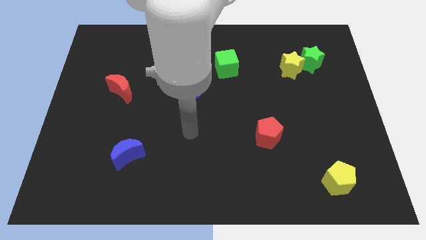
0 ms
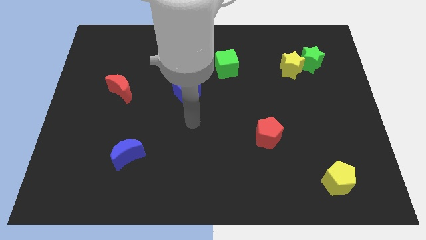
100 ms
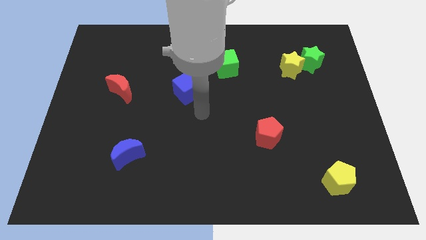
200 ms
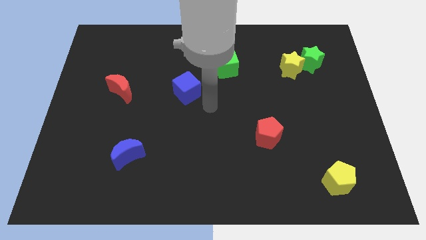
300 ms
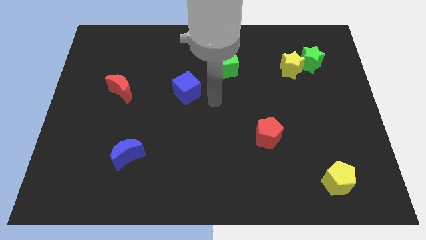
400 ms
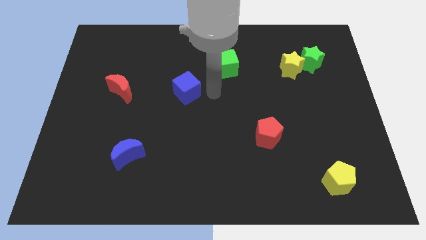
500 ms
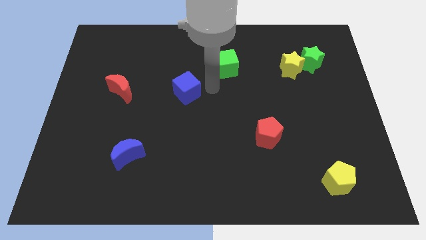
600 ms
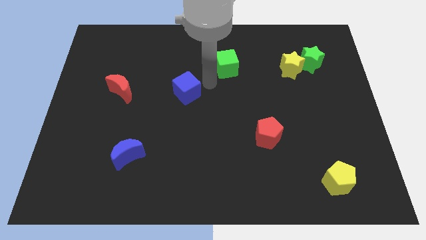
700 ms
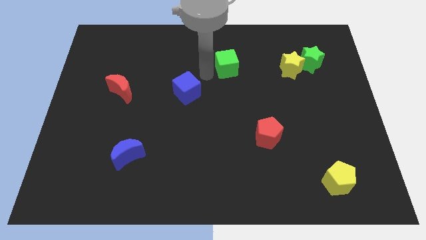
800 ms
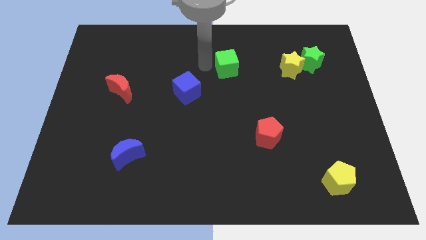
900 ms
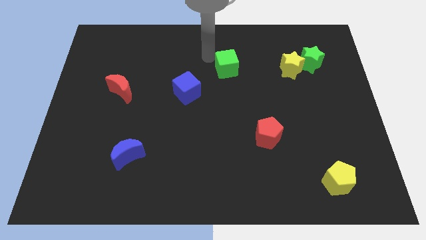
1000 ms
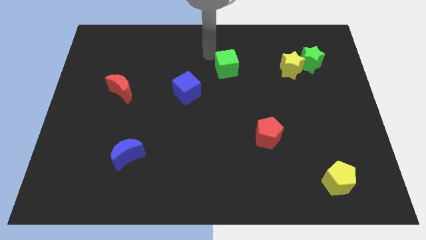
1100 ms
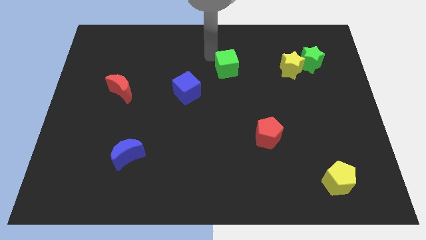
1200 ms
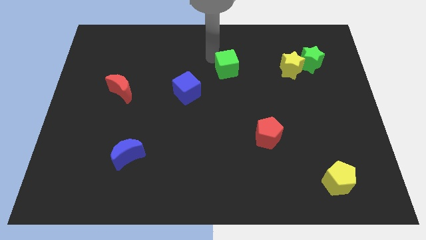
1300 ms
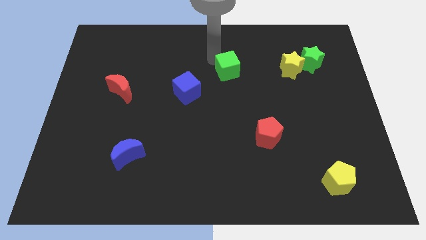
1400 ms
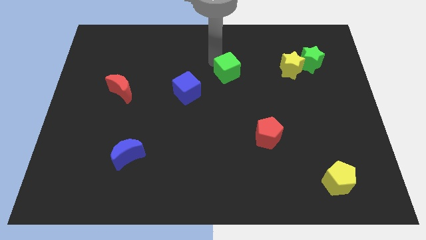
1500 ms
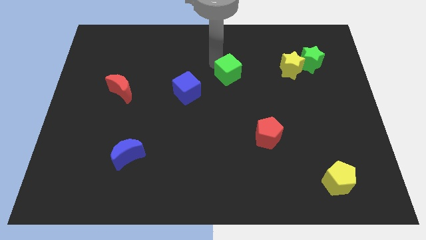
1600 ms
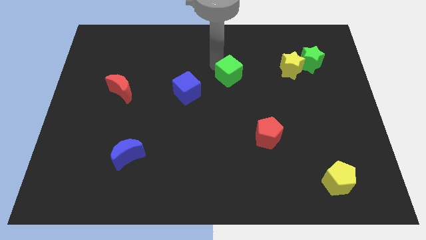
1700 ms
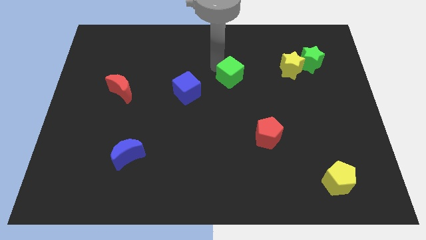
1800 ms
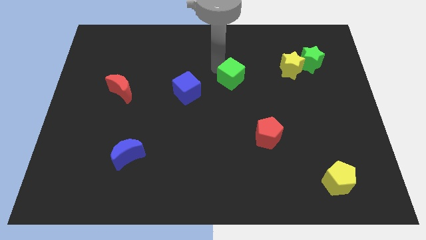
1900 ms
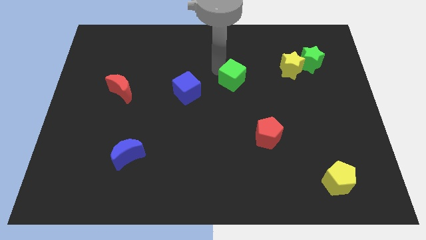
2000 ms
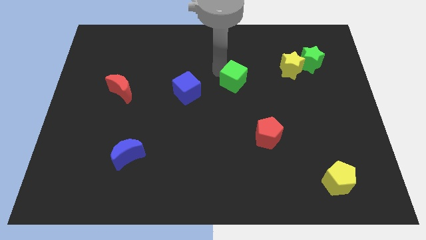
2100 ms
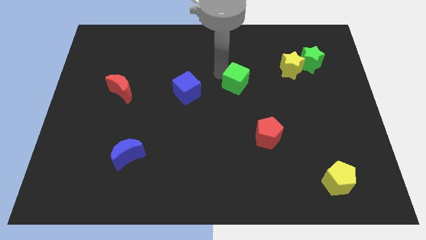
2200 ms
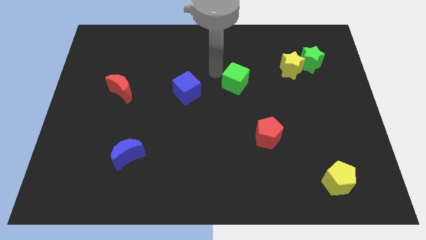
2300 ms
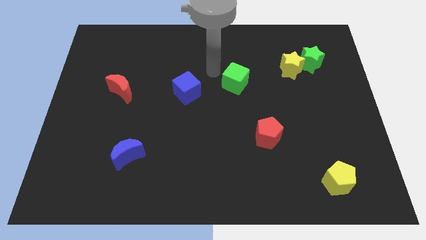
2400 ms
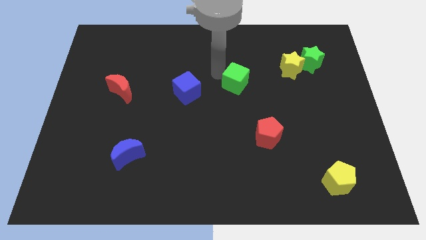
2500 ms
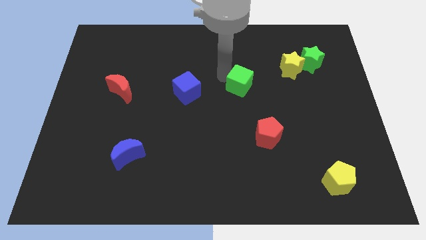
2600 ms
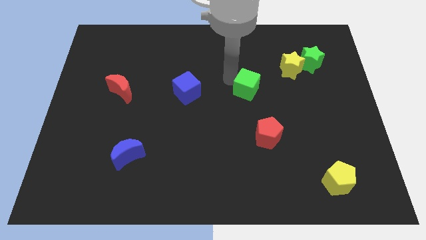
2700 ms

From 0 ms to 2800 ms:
push the green cube downwards and to the right diagonally a little

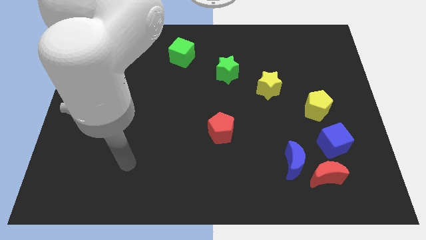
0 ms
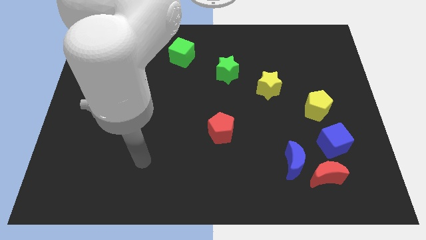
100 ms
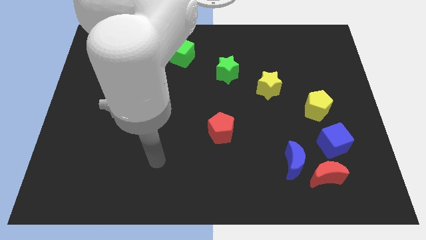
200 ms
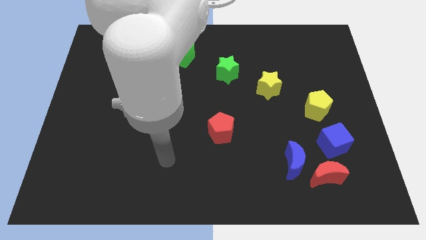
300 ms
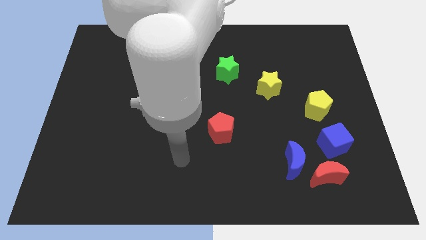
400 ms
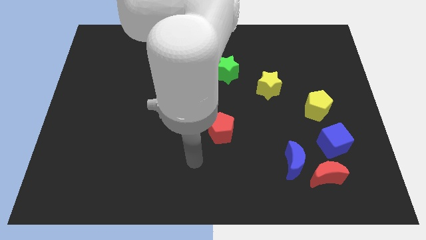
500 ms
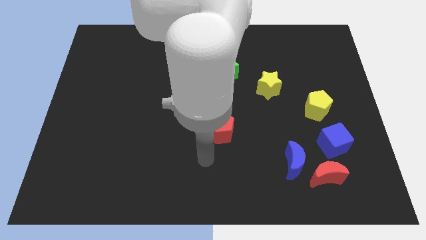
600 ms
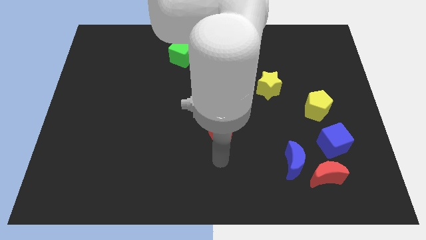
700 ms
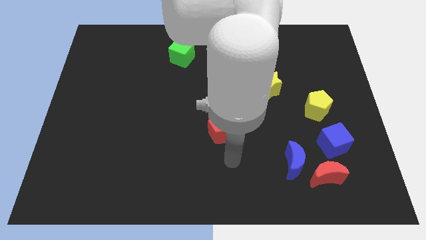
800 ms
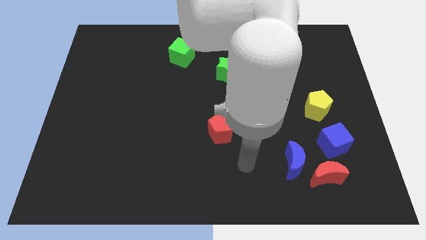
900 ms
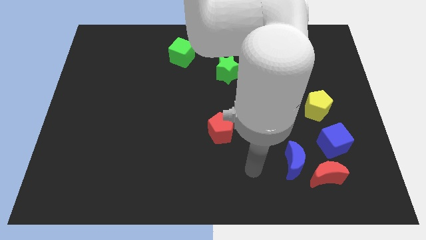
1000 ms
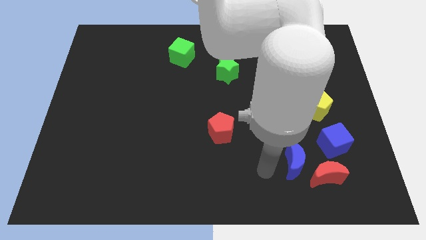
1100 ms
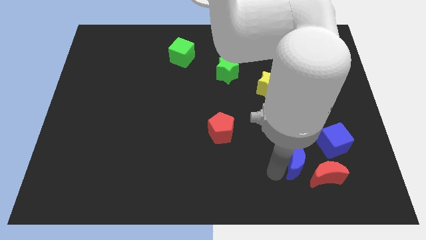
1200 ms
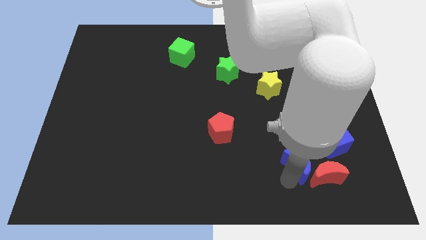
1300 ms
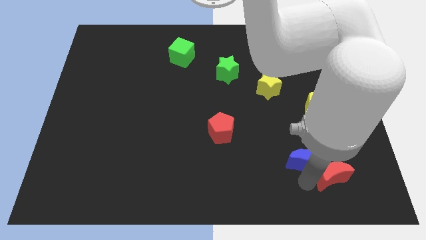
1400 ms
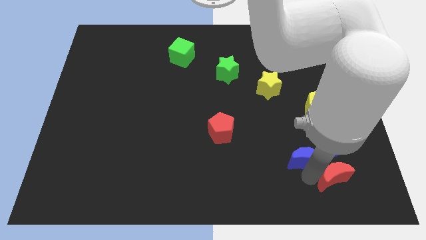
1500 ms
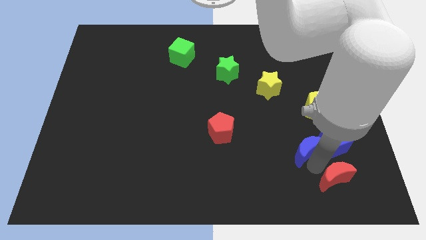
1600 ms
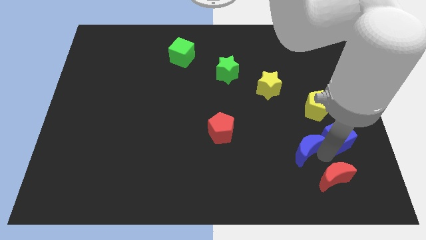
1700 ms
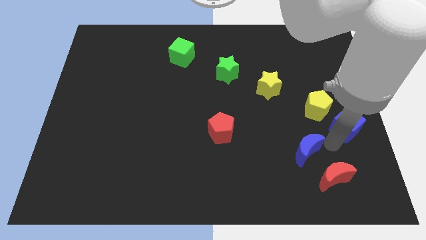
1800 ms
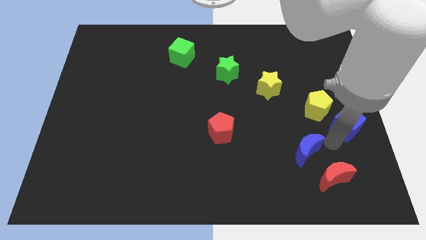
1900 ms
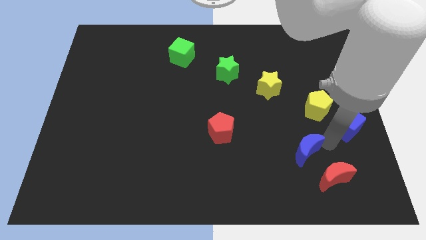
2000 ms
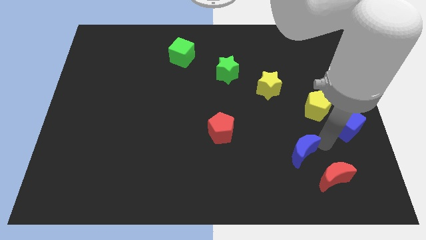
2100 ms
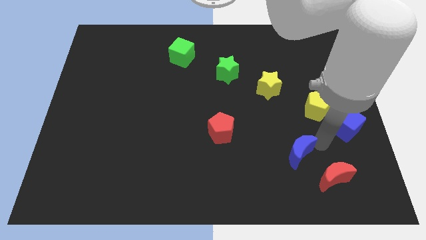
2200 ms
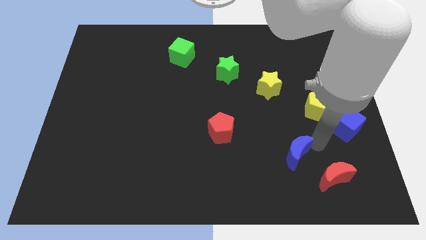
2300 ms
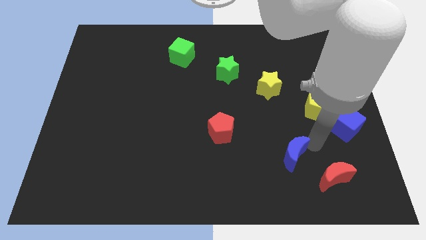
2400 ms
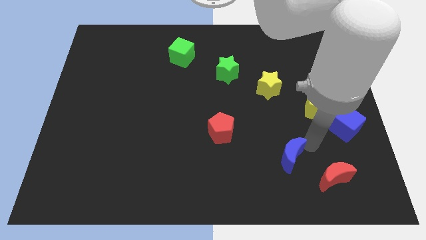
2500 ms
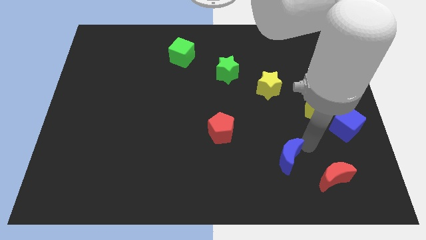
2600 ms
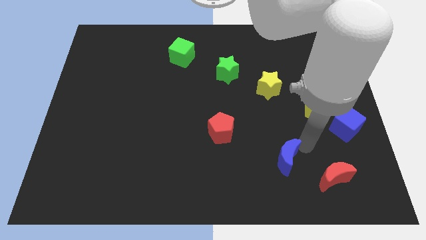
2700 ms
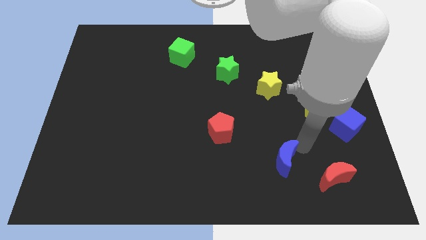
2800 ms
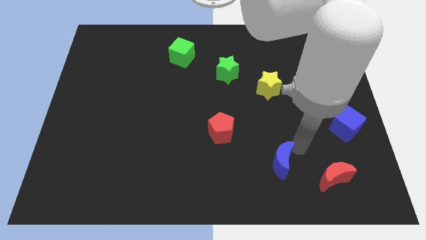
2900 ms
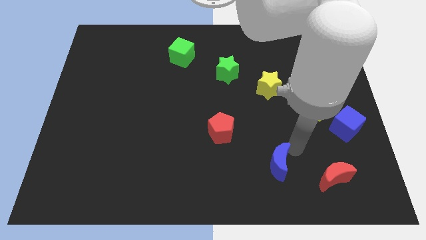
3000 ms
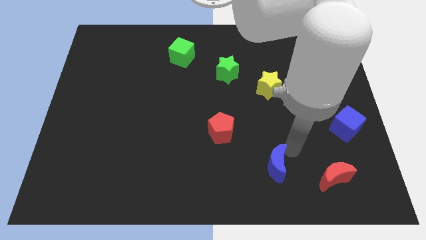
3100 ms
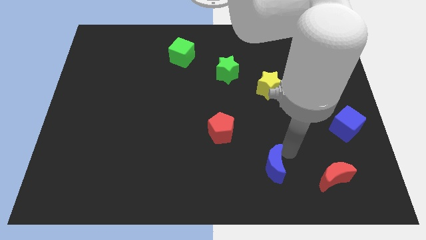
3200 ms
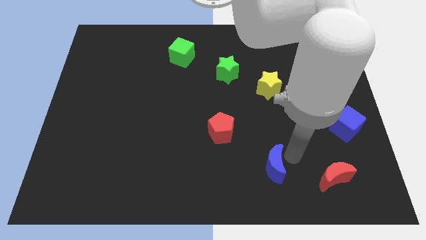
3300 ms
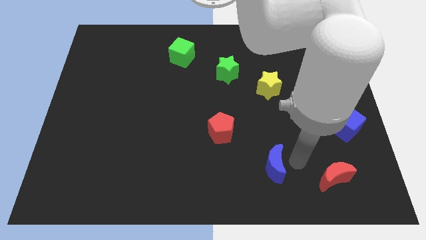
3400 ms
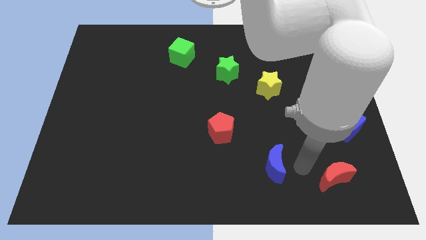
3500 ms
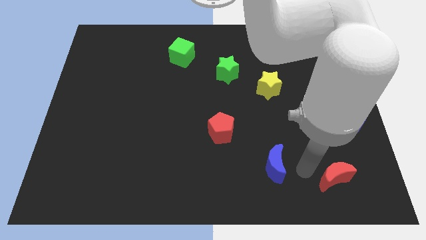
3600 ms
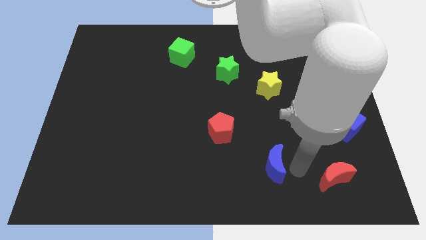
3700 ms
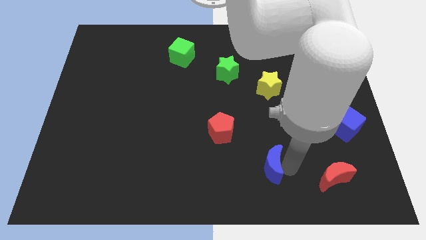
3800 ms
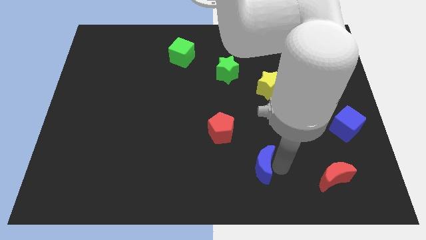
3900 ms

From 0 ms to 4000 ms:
slightly slide the blue moon left

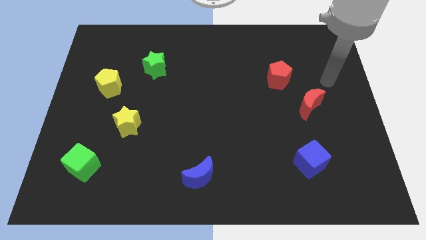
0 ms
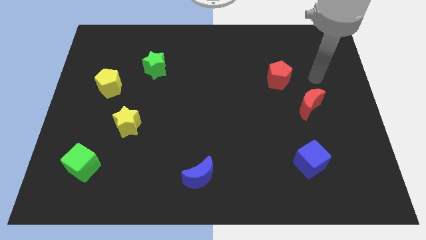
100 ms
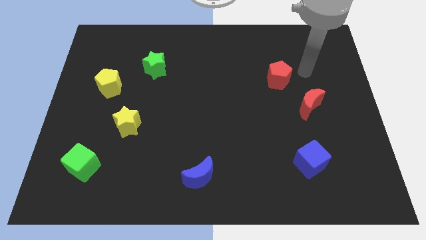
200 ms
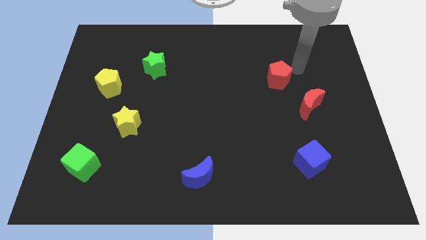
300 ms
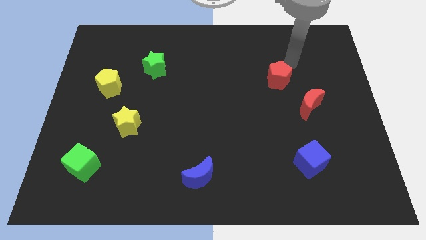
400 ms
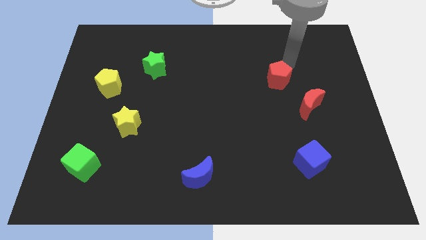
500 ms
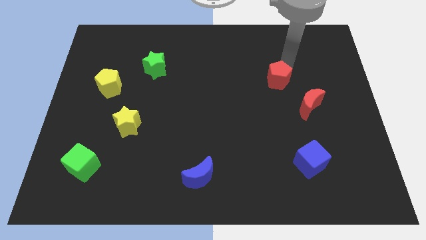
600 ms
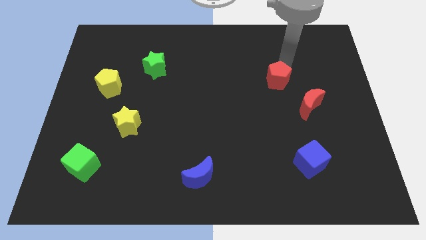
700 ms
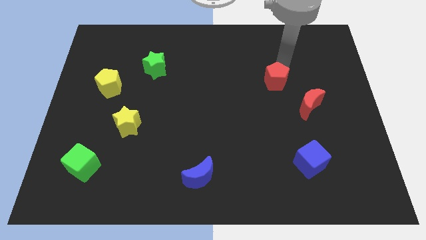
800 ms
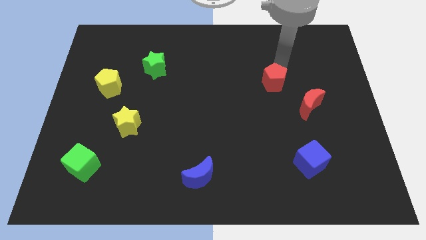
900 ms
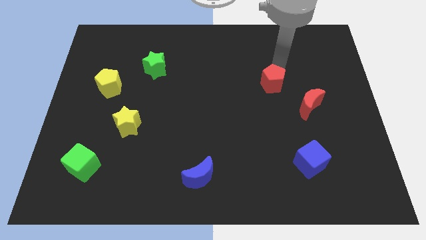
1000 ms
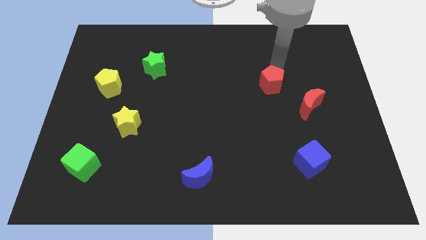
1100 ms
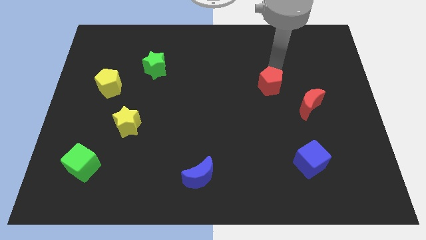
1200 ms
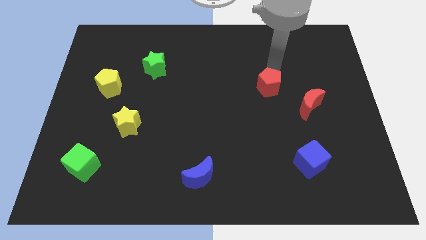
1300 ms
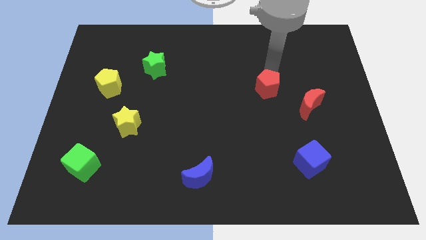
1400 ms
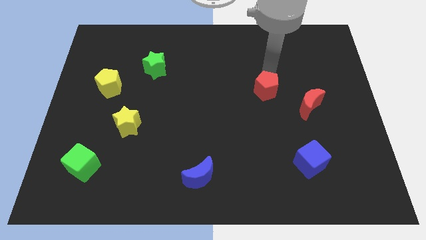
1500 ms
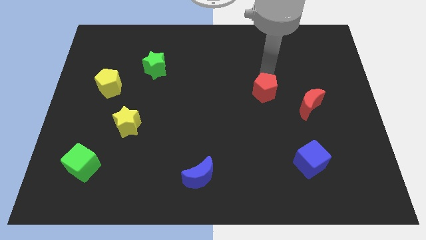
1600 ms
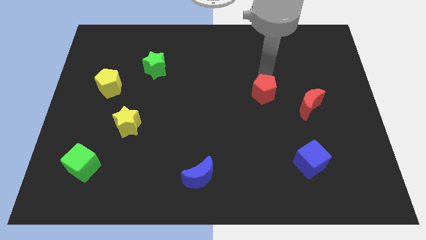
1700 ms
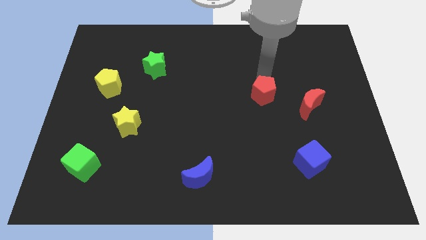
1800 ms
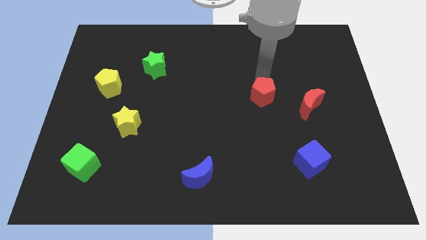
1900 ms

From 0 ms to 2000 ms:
slightly move the red pentagon down and to the left diagonally
